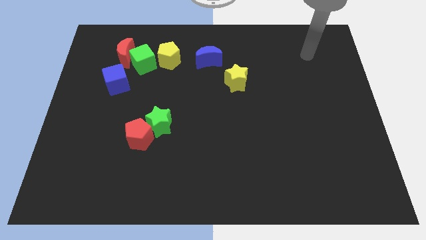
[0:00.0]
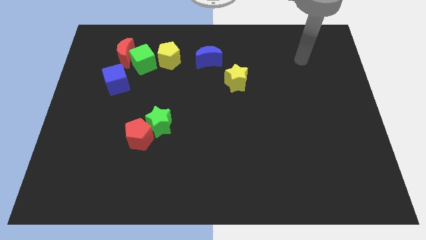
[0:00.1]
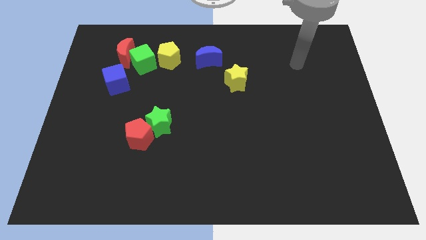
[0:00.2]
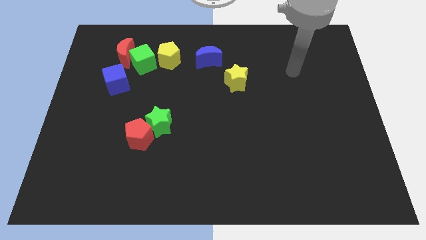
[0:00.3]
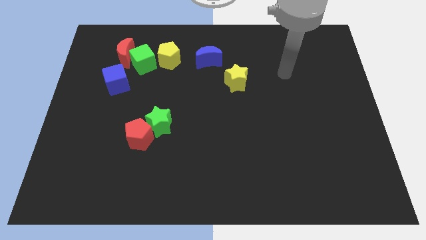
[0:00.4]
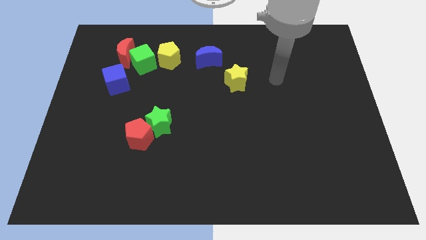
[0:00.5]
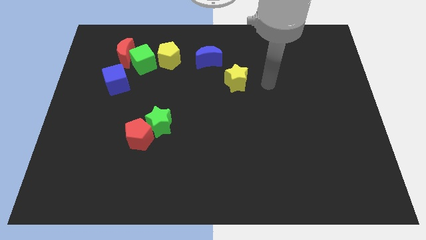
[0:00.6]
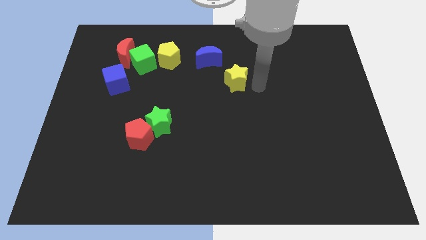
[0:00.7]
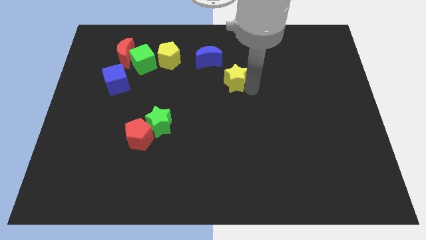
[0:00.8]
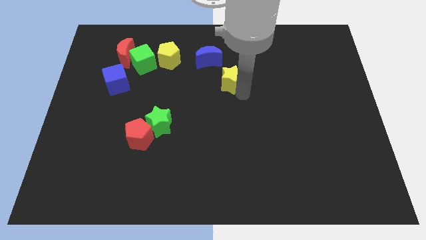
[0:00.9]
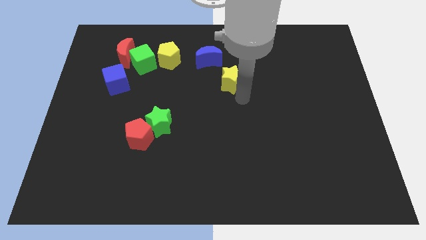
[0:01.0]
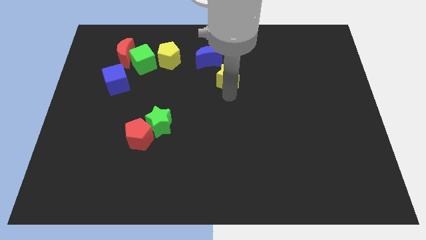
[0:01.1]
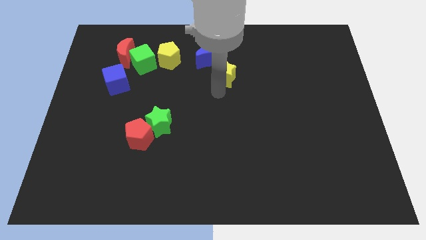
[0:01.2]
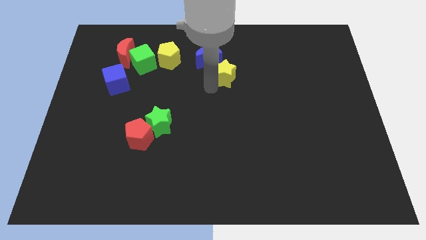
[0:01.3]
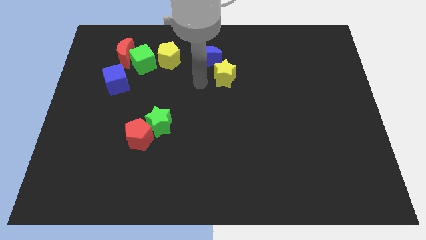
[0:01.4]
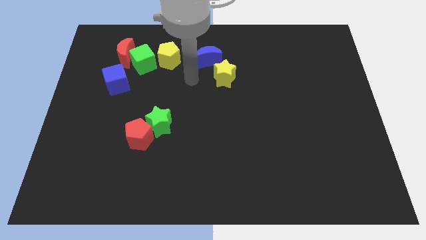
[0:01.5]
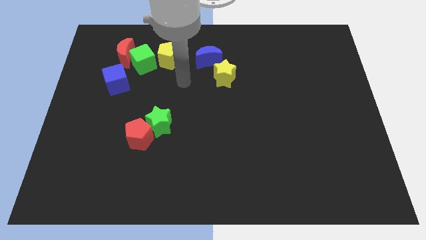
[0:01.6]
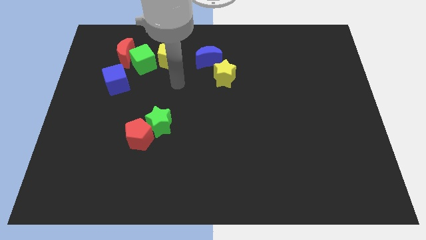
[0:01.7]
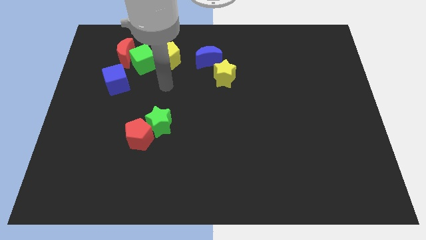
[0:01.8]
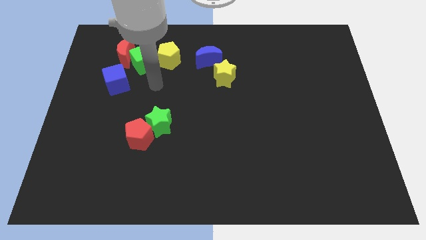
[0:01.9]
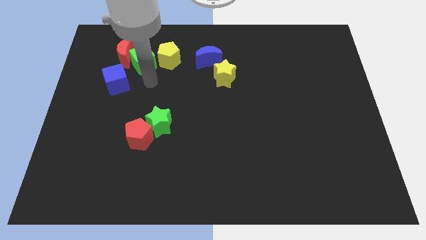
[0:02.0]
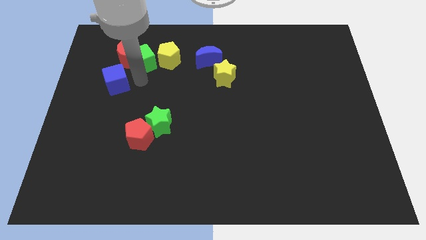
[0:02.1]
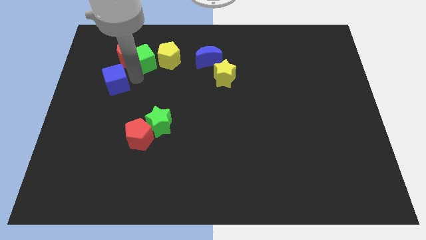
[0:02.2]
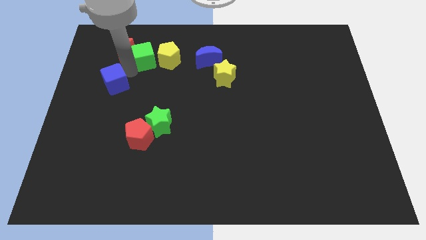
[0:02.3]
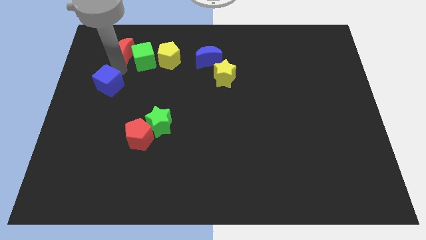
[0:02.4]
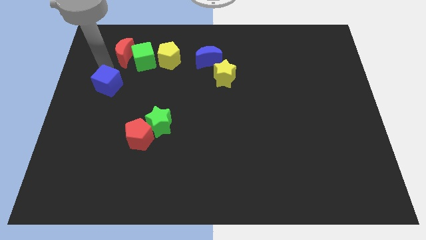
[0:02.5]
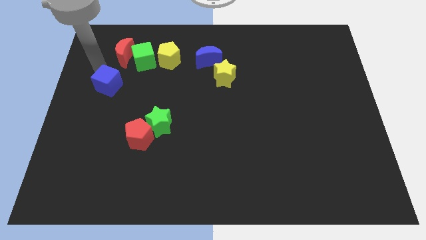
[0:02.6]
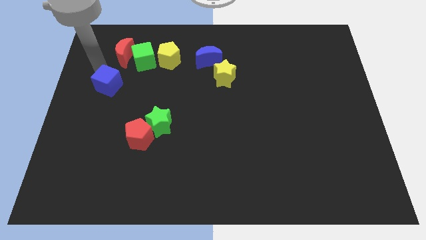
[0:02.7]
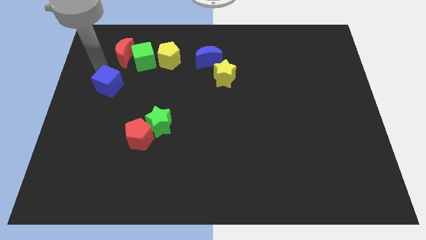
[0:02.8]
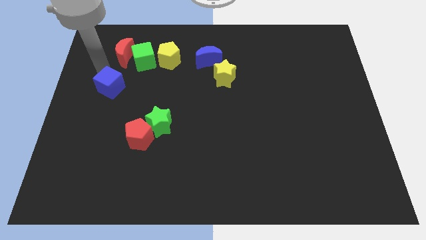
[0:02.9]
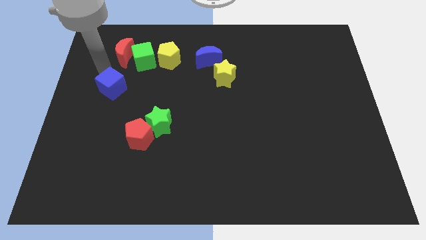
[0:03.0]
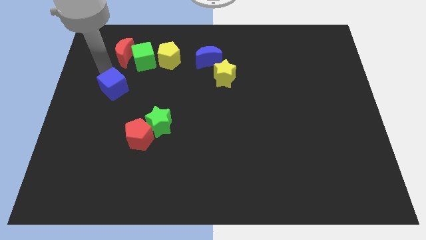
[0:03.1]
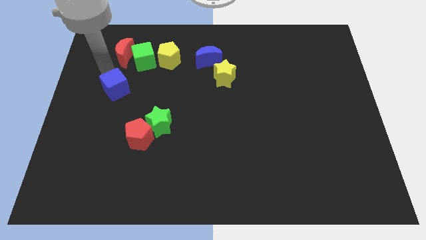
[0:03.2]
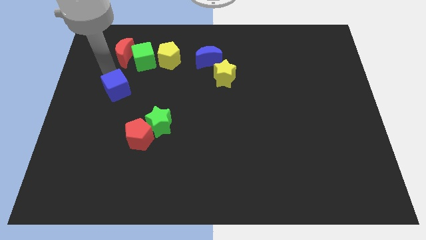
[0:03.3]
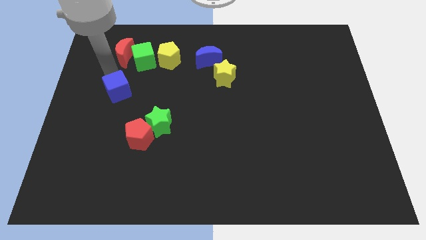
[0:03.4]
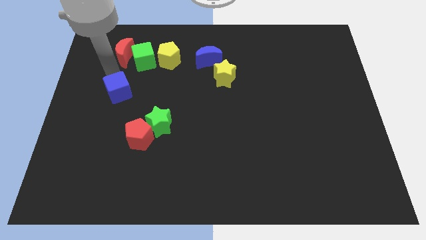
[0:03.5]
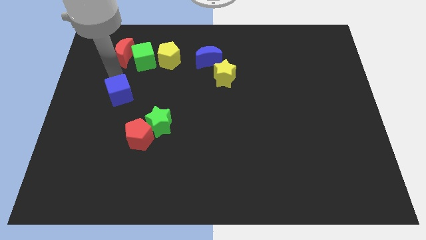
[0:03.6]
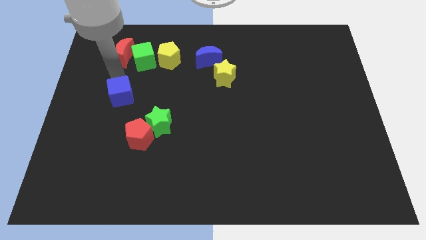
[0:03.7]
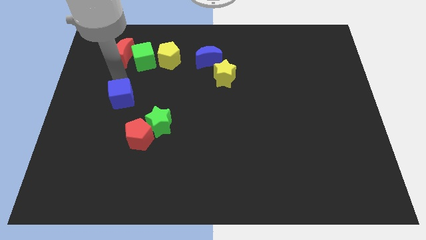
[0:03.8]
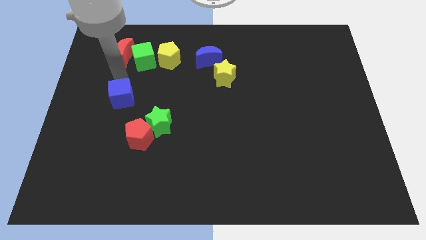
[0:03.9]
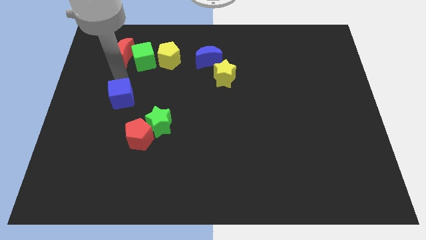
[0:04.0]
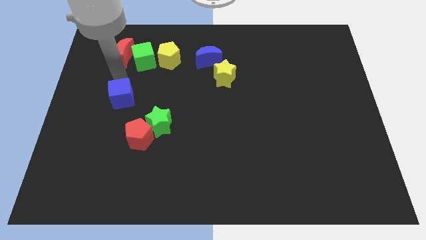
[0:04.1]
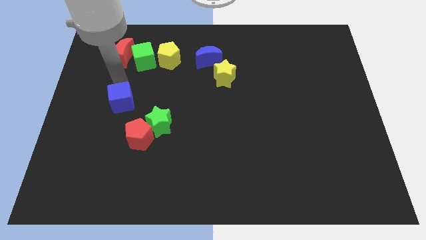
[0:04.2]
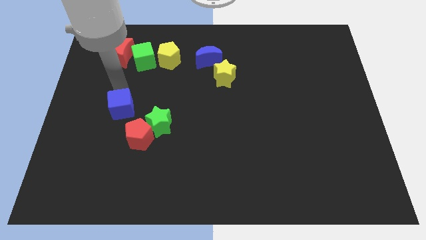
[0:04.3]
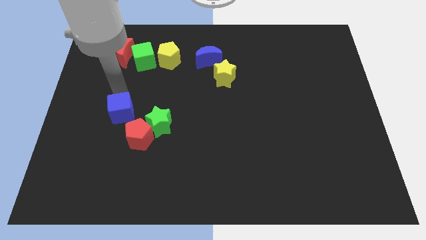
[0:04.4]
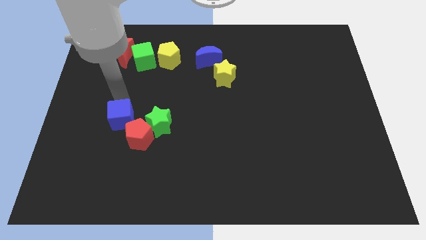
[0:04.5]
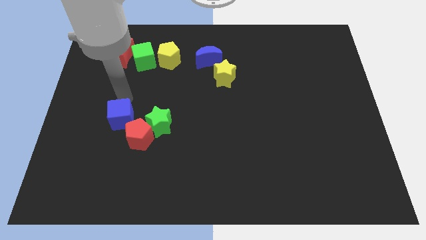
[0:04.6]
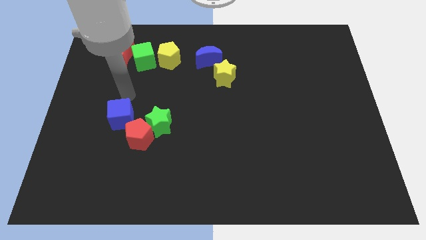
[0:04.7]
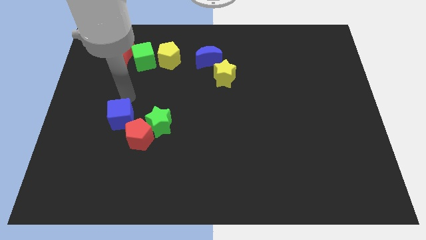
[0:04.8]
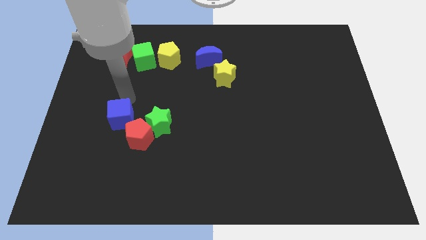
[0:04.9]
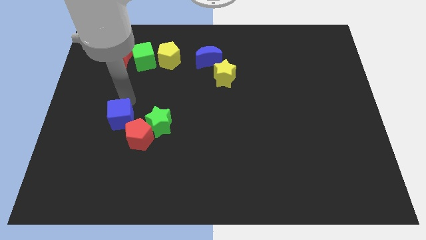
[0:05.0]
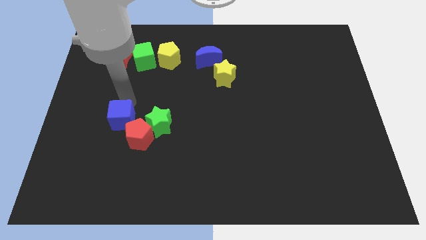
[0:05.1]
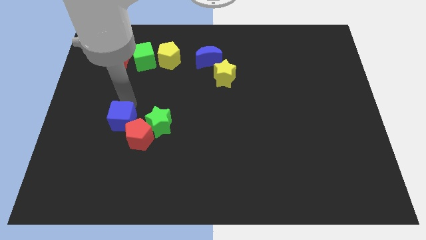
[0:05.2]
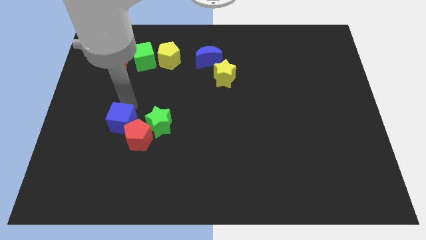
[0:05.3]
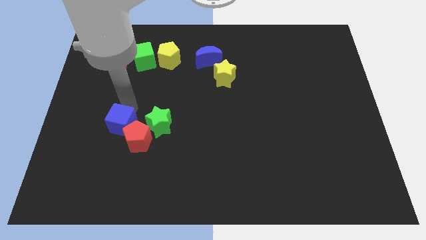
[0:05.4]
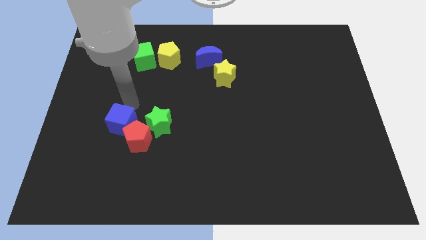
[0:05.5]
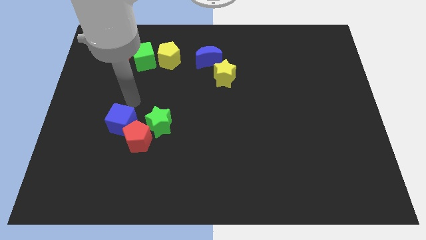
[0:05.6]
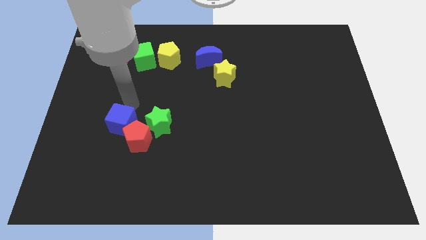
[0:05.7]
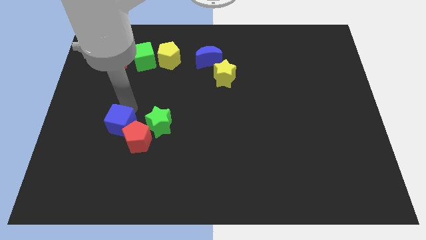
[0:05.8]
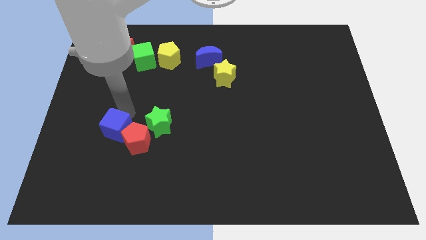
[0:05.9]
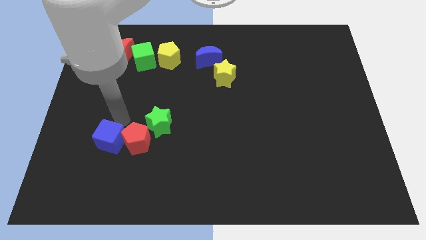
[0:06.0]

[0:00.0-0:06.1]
slide the blue cube diagonally down and to the left of the red pentagon

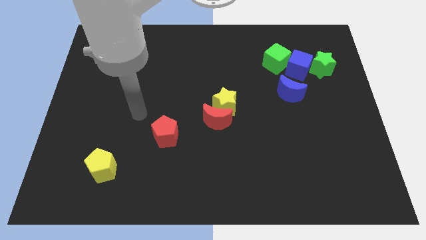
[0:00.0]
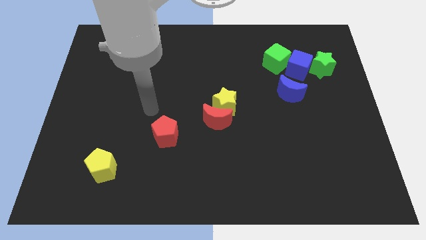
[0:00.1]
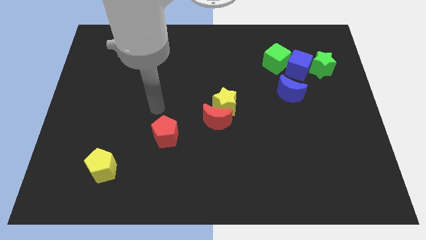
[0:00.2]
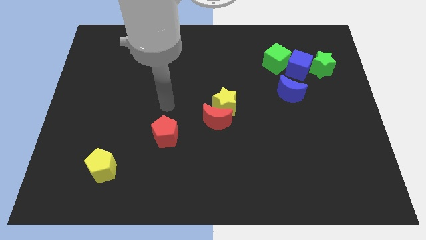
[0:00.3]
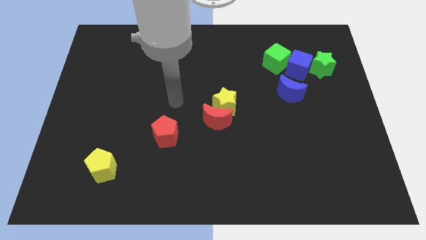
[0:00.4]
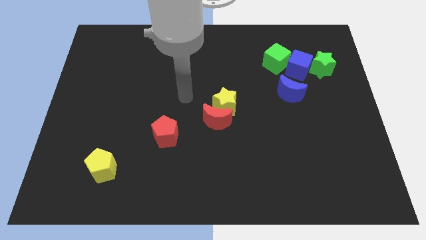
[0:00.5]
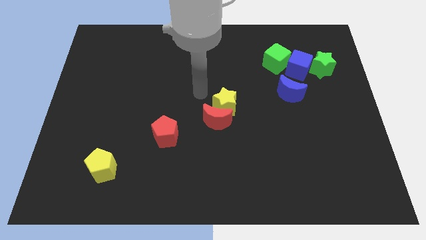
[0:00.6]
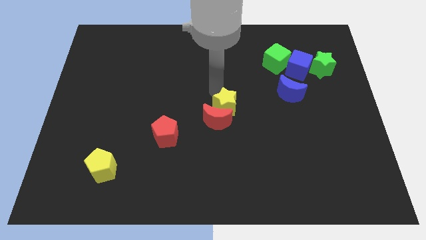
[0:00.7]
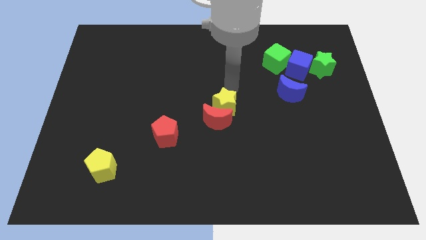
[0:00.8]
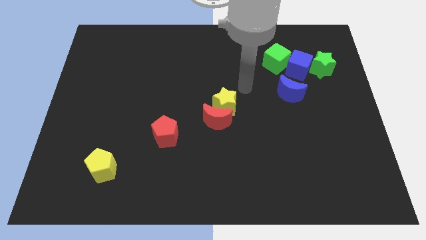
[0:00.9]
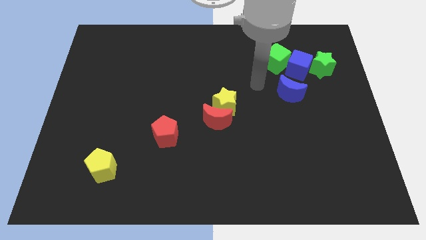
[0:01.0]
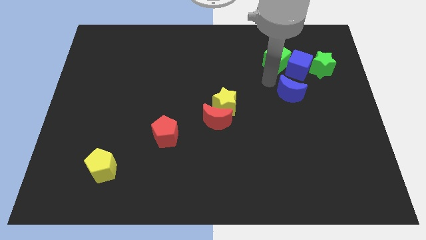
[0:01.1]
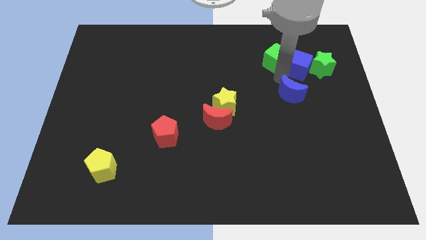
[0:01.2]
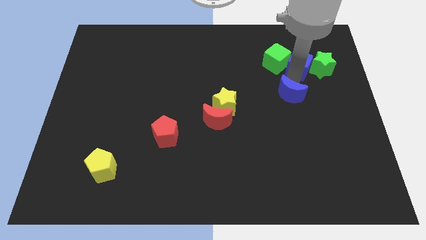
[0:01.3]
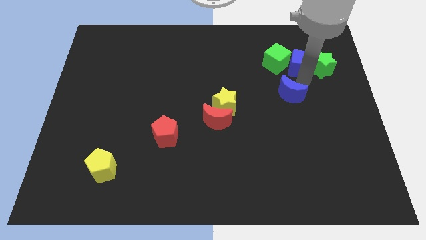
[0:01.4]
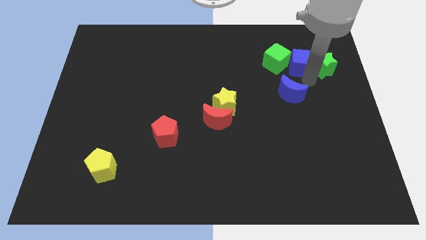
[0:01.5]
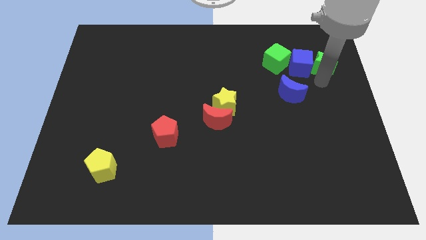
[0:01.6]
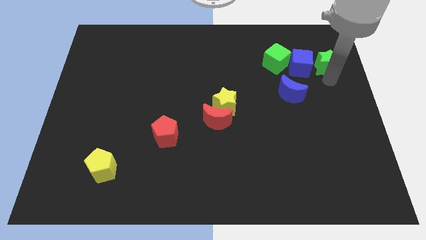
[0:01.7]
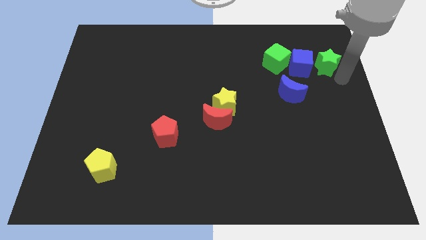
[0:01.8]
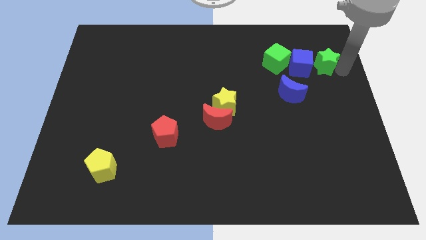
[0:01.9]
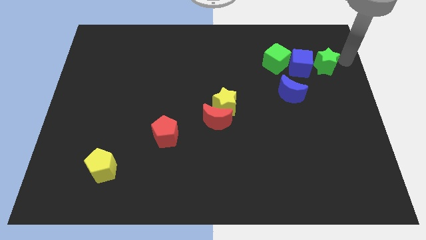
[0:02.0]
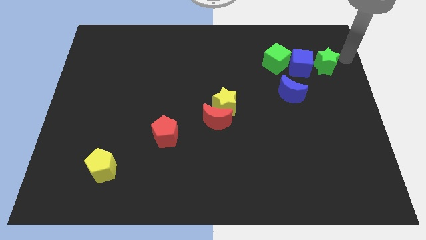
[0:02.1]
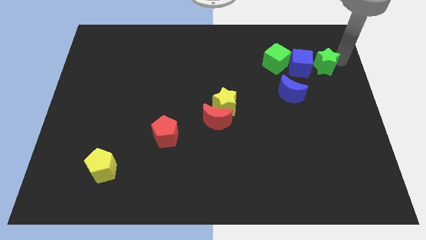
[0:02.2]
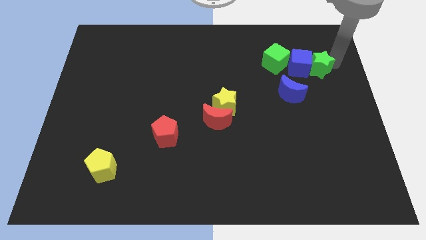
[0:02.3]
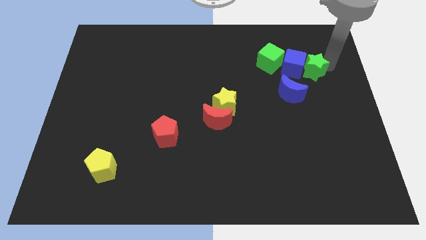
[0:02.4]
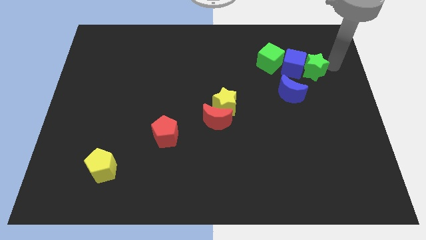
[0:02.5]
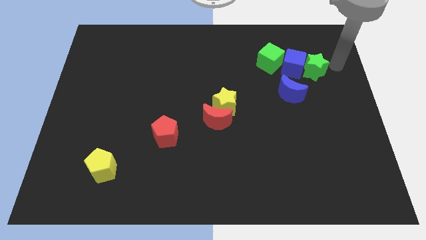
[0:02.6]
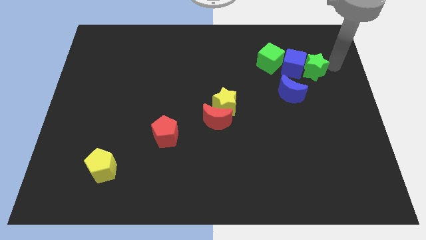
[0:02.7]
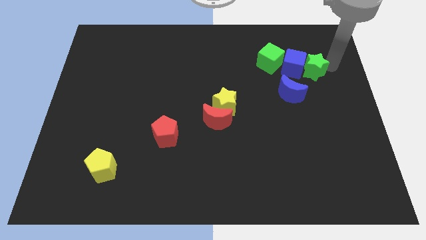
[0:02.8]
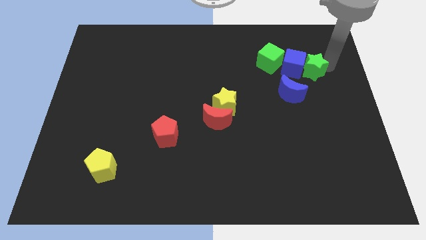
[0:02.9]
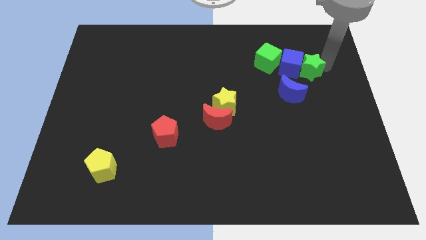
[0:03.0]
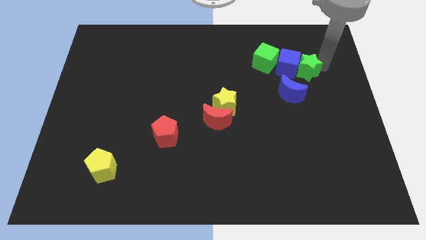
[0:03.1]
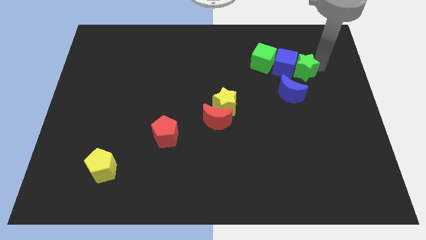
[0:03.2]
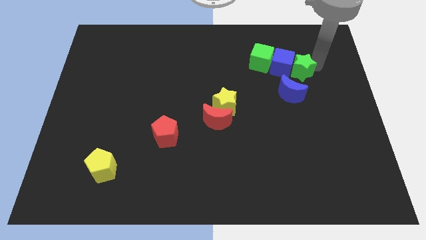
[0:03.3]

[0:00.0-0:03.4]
slide the green star to the bottom right of the green cube
